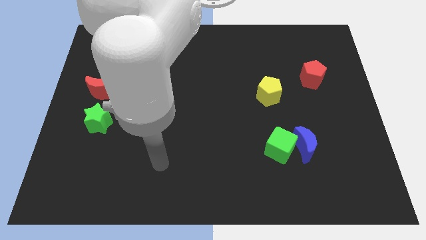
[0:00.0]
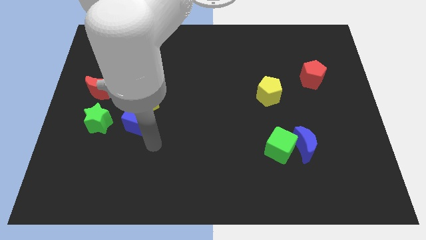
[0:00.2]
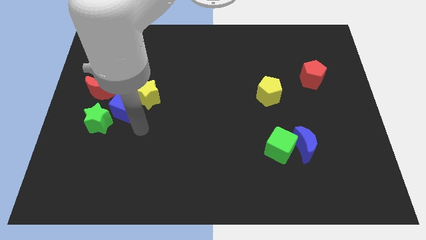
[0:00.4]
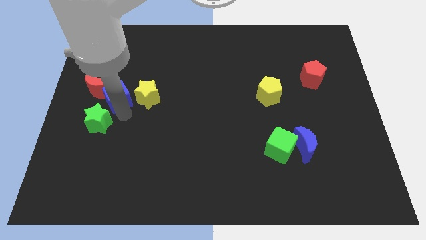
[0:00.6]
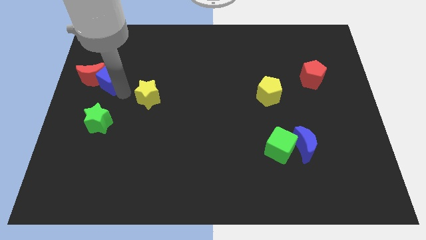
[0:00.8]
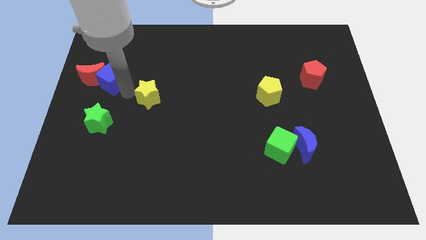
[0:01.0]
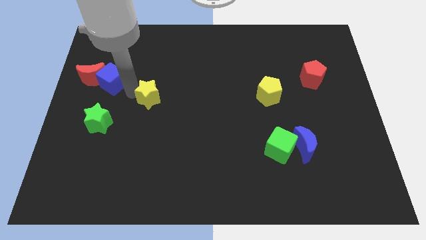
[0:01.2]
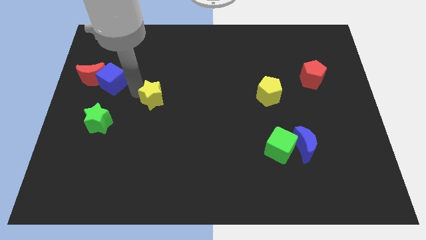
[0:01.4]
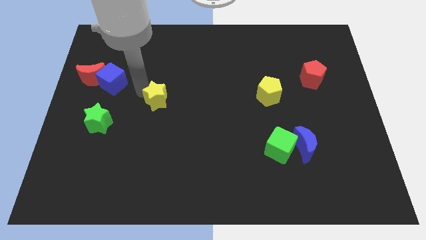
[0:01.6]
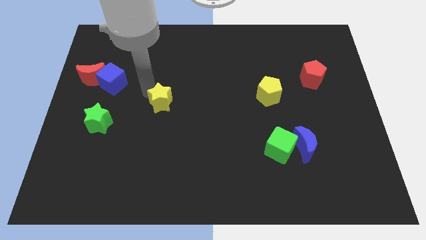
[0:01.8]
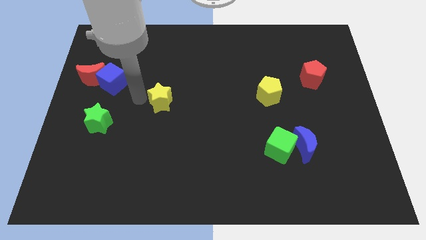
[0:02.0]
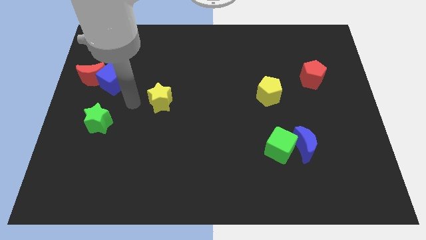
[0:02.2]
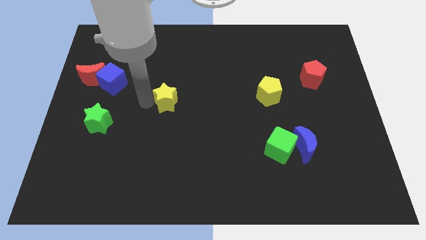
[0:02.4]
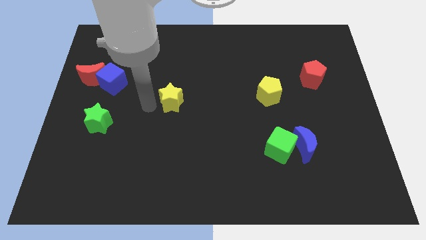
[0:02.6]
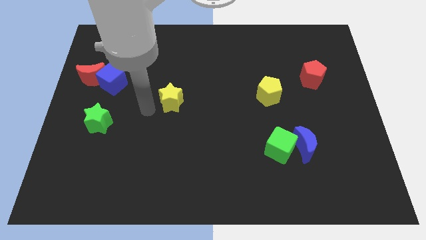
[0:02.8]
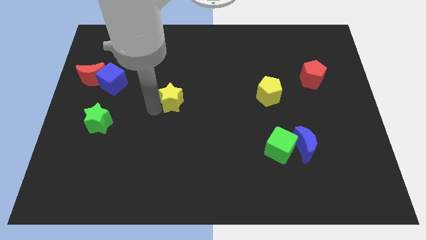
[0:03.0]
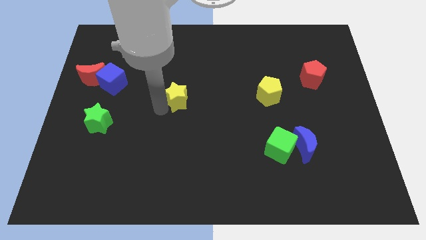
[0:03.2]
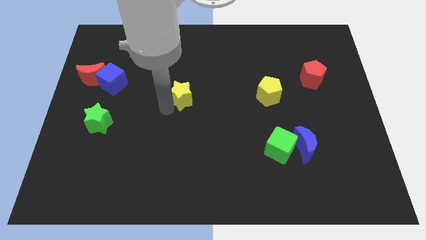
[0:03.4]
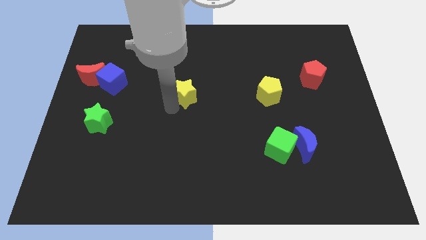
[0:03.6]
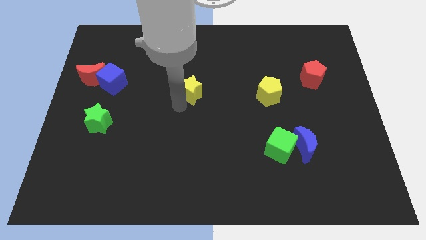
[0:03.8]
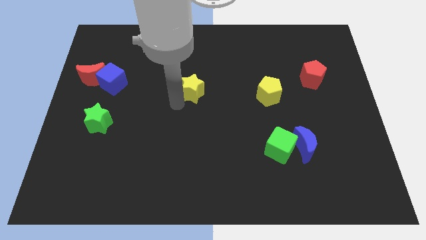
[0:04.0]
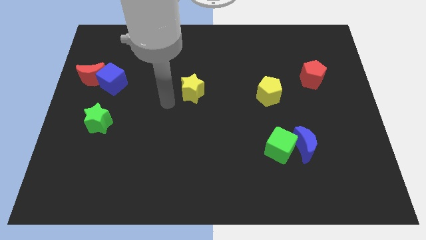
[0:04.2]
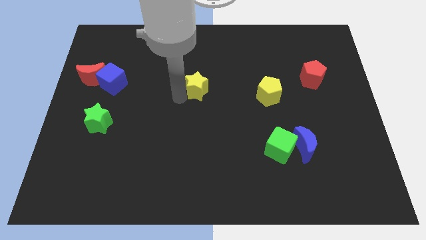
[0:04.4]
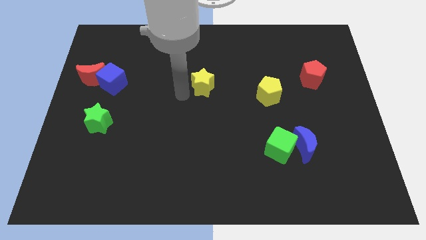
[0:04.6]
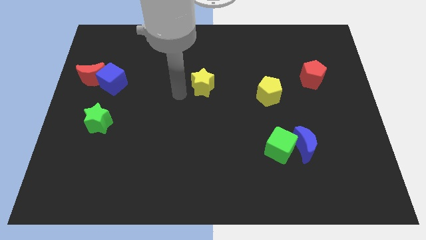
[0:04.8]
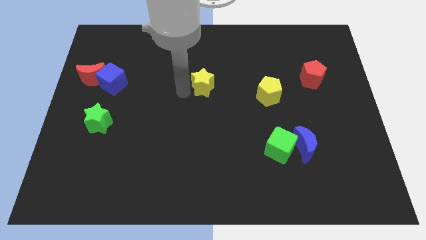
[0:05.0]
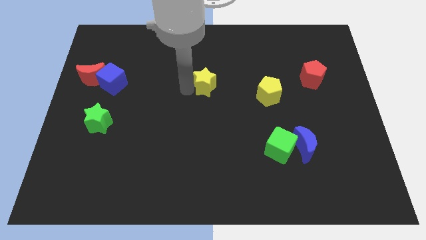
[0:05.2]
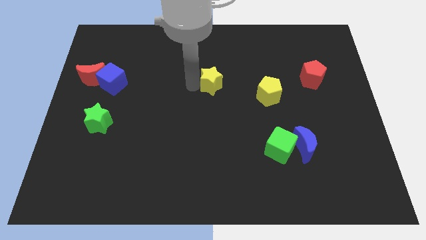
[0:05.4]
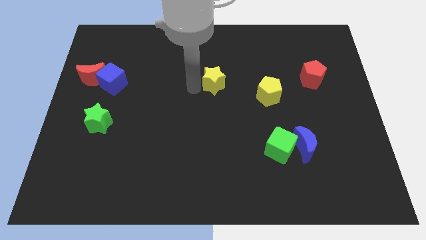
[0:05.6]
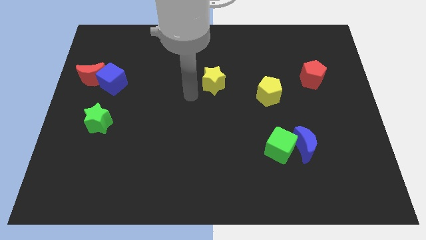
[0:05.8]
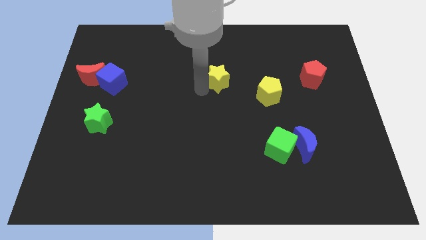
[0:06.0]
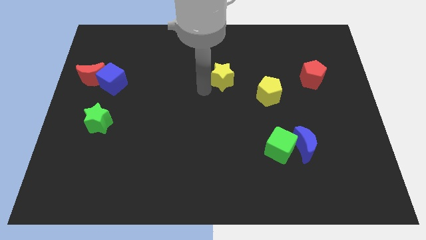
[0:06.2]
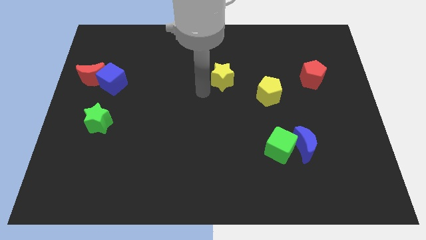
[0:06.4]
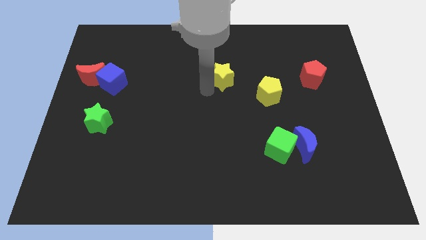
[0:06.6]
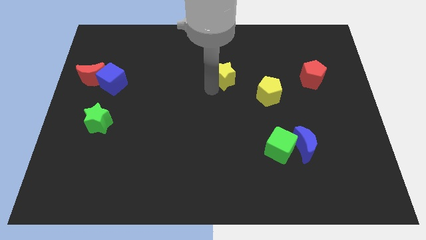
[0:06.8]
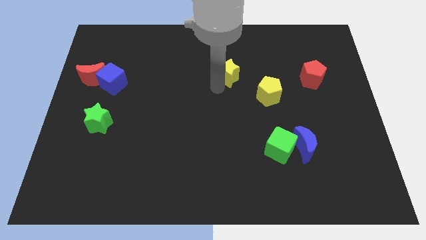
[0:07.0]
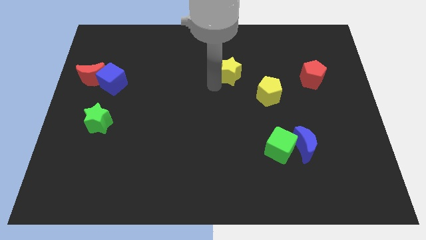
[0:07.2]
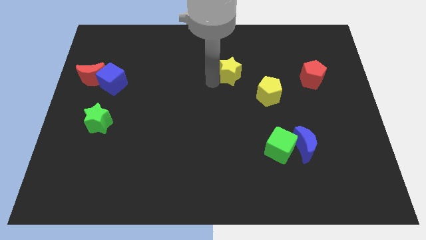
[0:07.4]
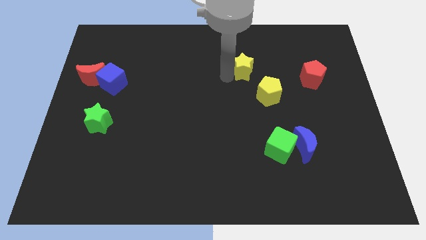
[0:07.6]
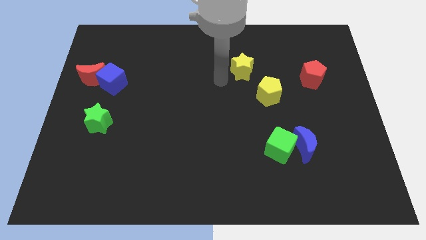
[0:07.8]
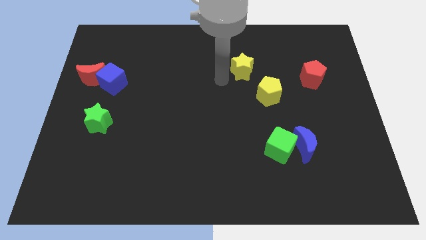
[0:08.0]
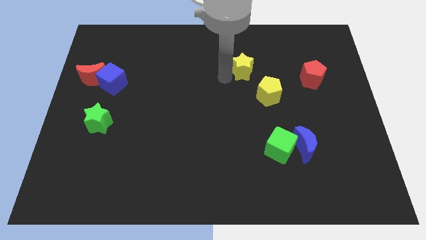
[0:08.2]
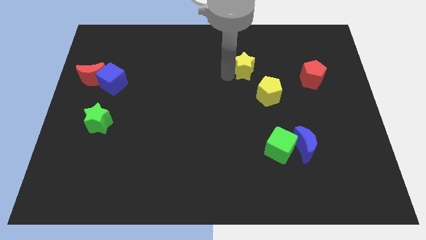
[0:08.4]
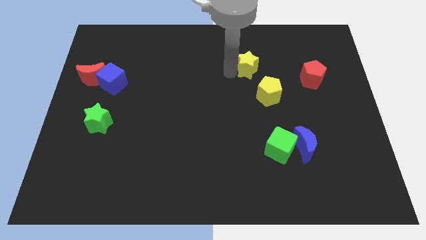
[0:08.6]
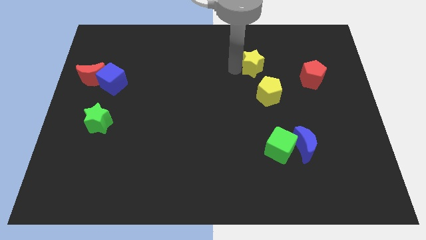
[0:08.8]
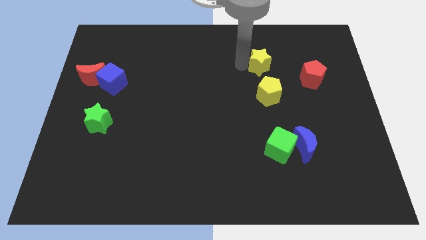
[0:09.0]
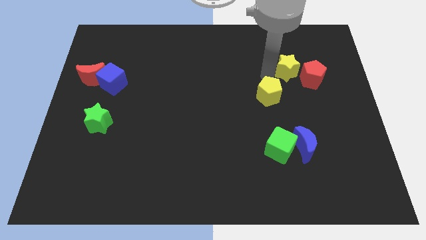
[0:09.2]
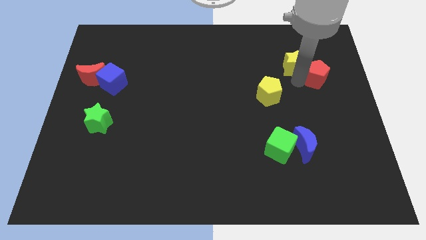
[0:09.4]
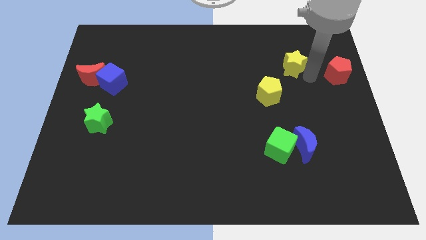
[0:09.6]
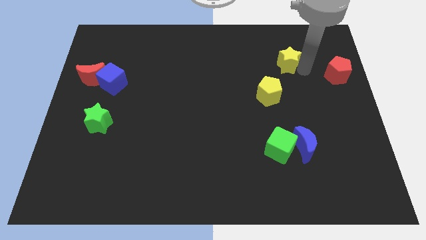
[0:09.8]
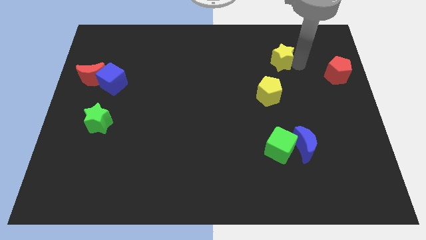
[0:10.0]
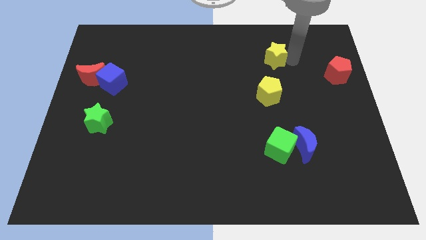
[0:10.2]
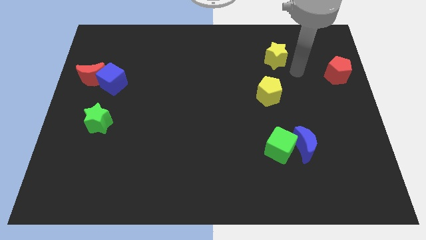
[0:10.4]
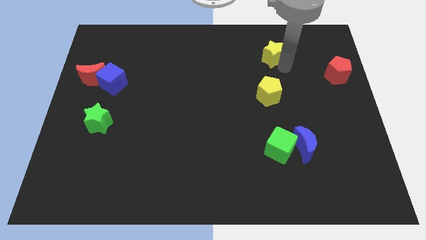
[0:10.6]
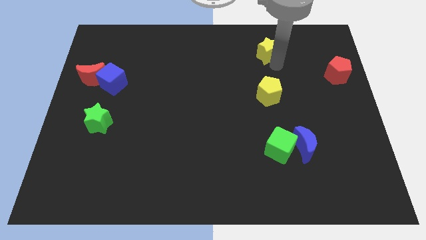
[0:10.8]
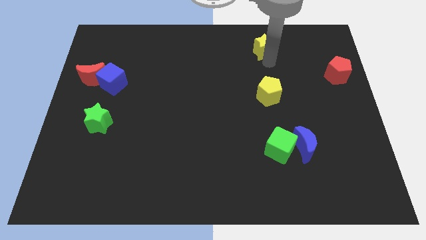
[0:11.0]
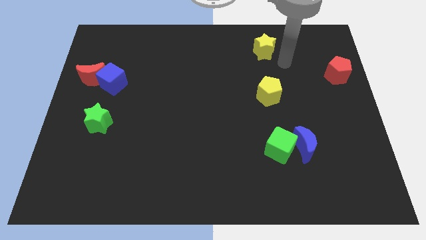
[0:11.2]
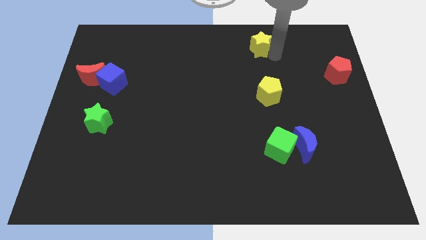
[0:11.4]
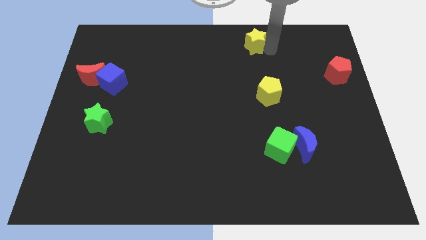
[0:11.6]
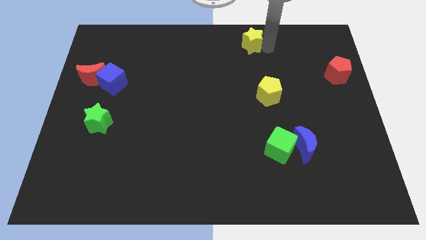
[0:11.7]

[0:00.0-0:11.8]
put the yellow star to the towards your base

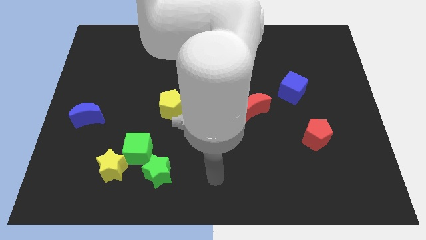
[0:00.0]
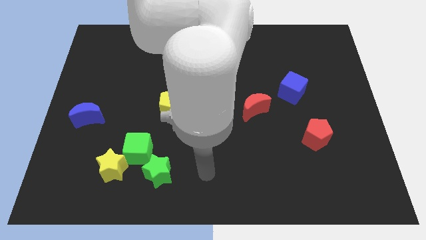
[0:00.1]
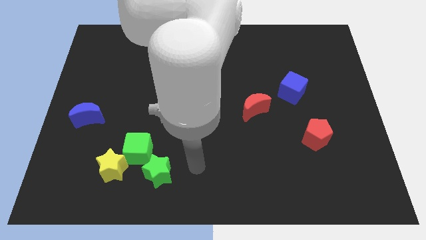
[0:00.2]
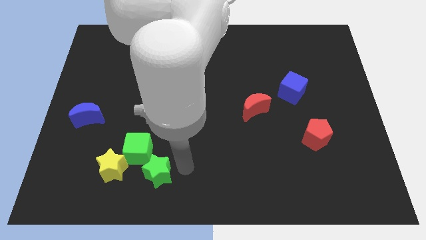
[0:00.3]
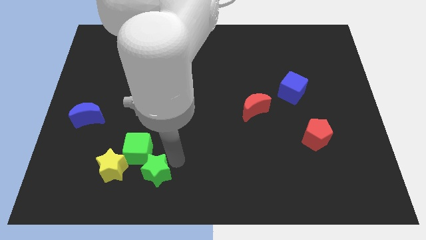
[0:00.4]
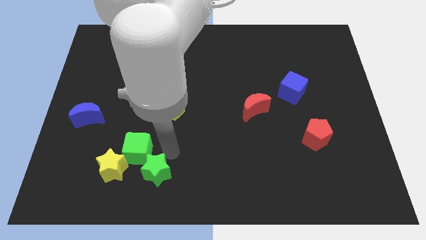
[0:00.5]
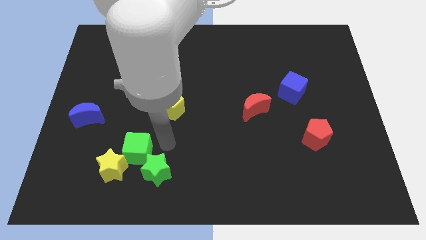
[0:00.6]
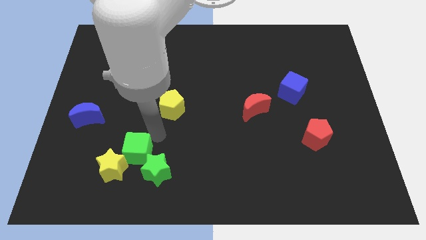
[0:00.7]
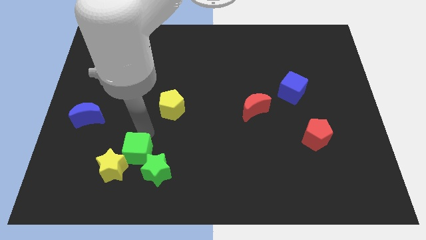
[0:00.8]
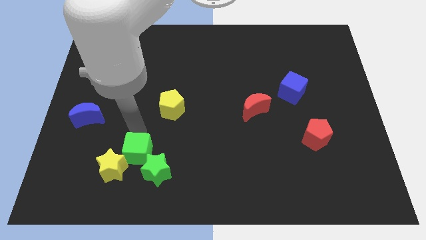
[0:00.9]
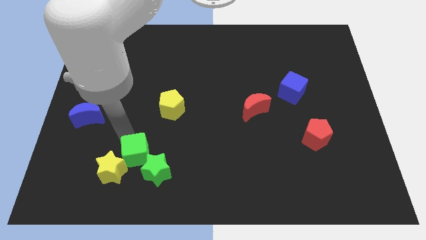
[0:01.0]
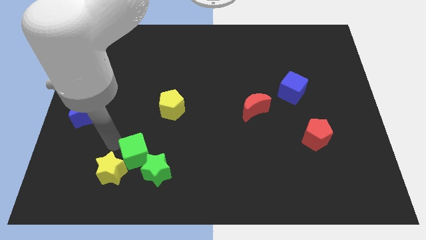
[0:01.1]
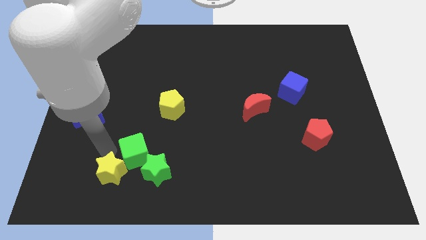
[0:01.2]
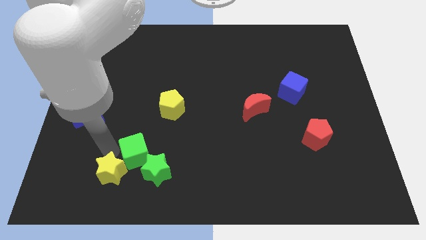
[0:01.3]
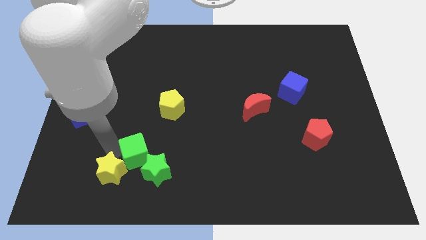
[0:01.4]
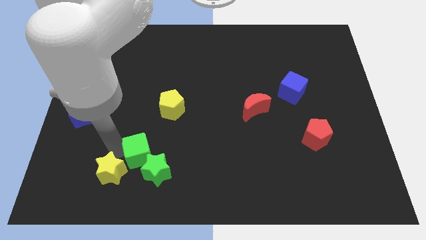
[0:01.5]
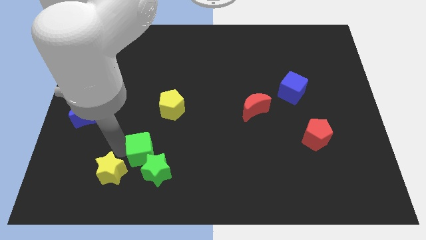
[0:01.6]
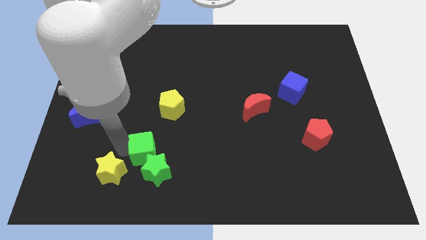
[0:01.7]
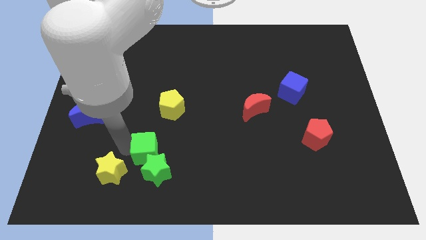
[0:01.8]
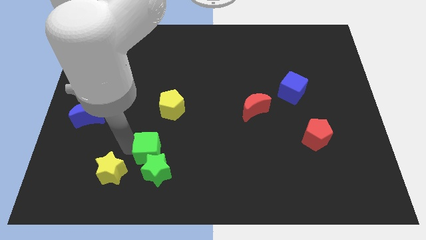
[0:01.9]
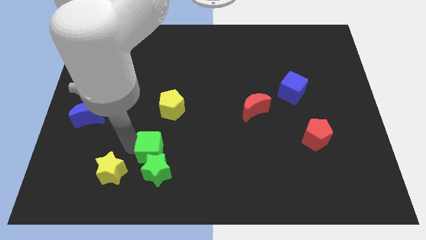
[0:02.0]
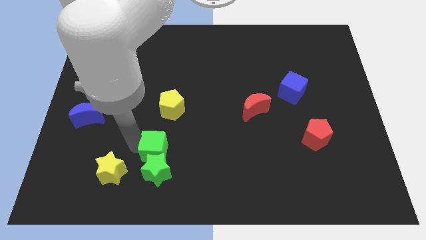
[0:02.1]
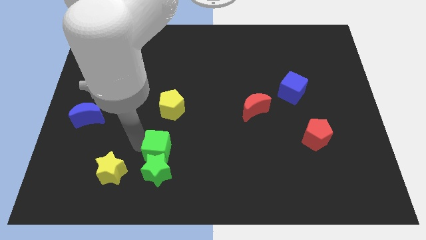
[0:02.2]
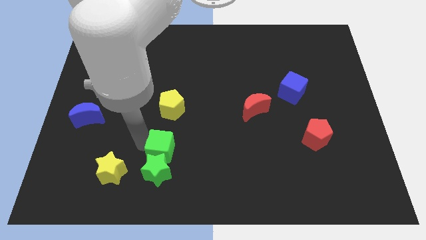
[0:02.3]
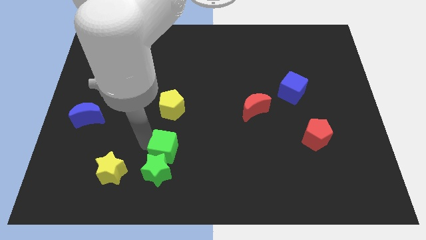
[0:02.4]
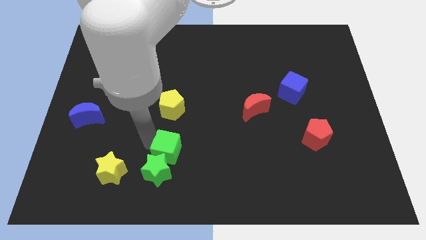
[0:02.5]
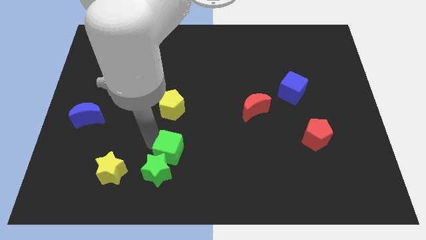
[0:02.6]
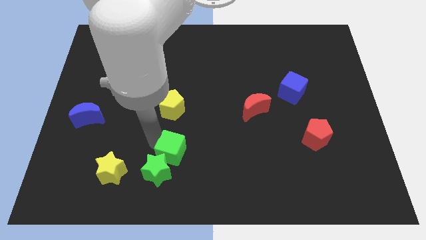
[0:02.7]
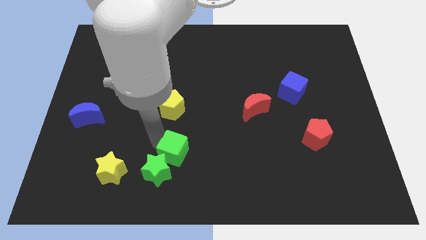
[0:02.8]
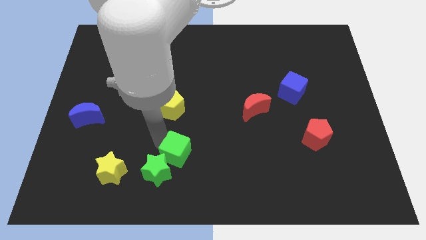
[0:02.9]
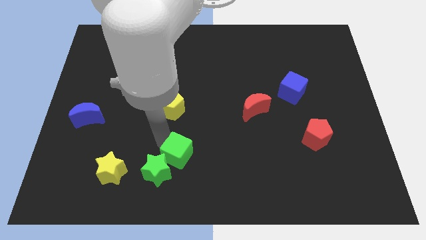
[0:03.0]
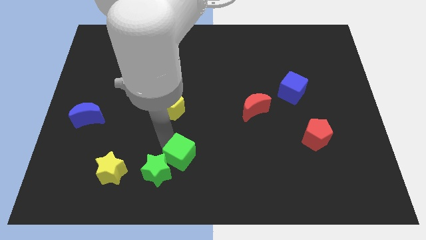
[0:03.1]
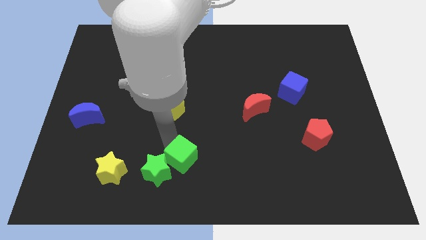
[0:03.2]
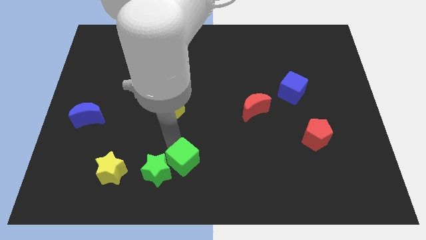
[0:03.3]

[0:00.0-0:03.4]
put the green cube to the bottom side
